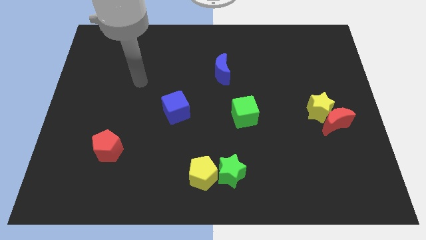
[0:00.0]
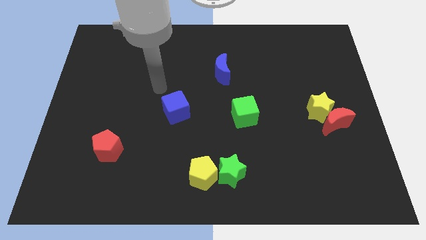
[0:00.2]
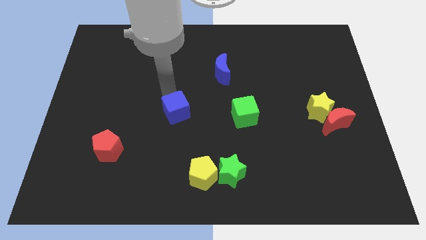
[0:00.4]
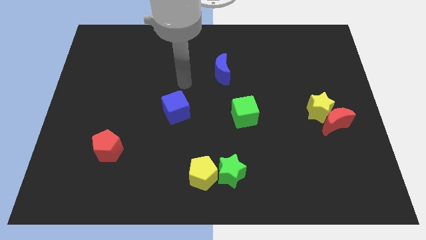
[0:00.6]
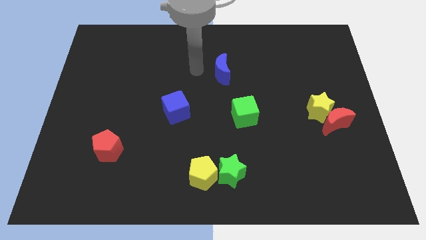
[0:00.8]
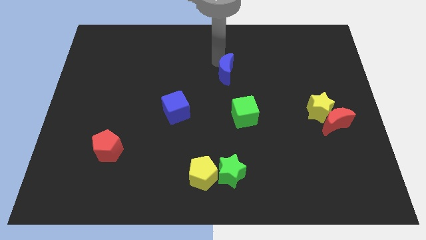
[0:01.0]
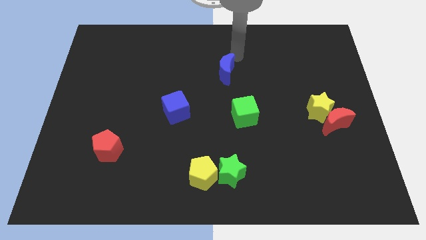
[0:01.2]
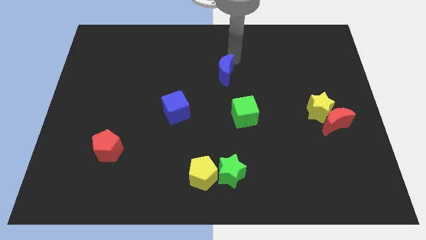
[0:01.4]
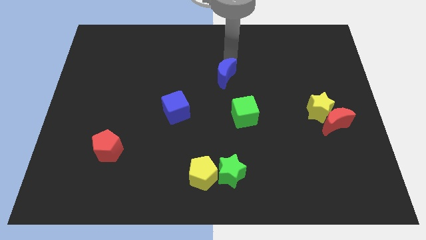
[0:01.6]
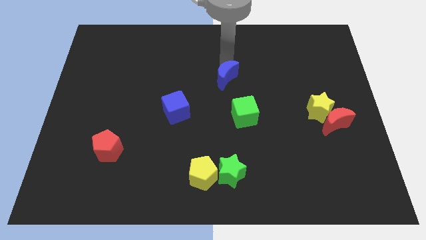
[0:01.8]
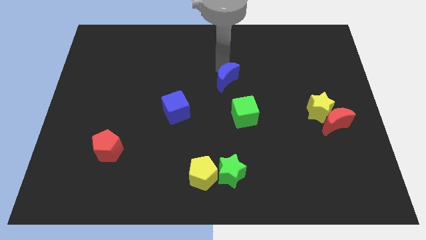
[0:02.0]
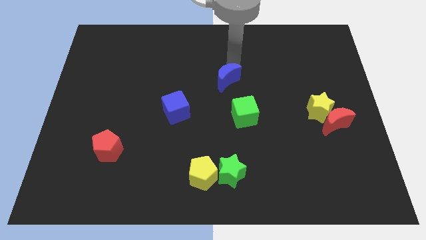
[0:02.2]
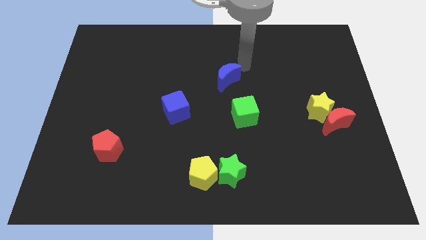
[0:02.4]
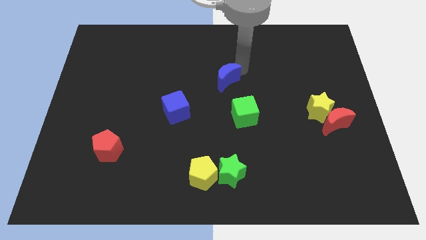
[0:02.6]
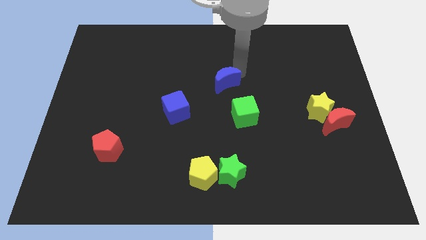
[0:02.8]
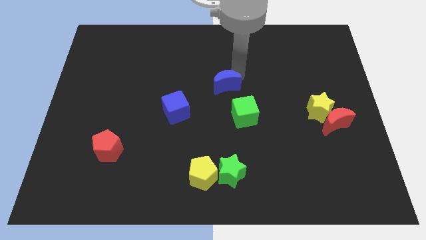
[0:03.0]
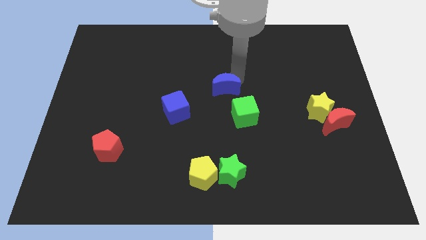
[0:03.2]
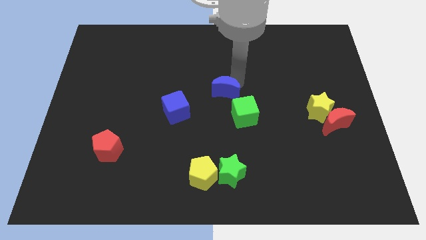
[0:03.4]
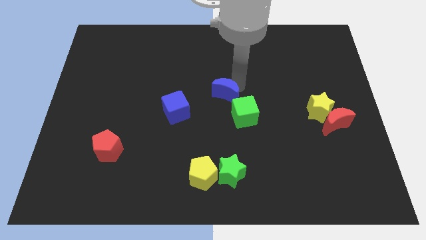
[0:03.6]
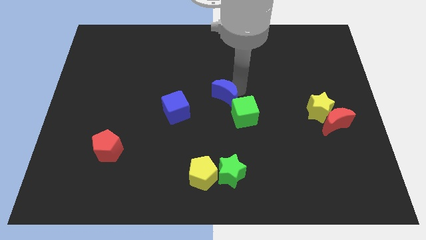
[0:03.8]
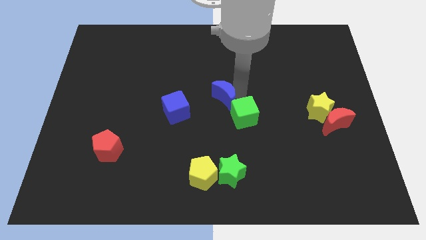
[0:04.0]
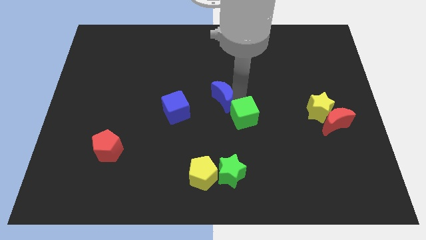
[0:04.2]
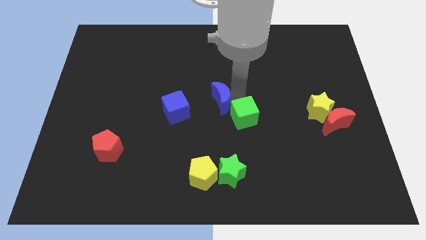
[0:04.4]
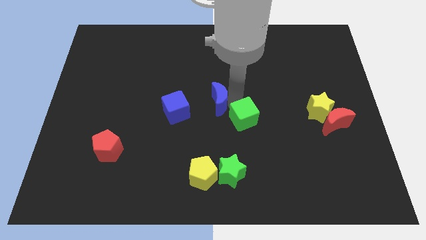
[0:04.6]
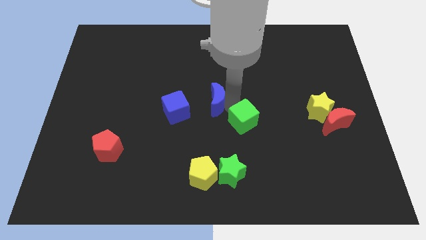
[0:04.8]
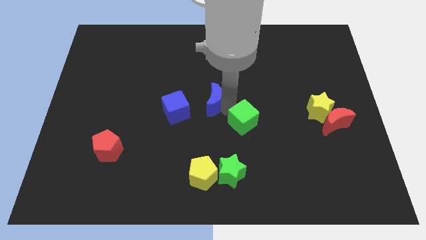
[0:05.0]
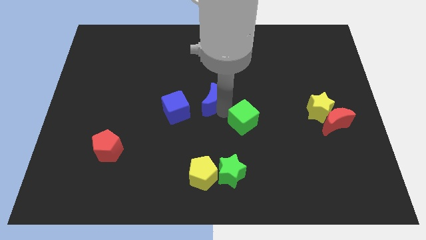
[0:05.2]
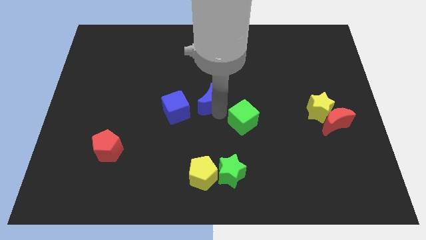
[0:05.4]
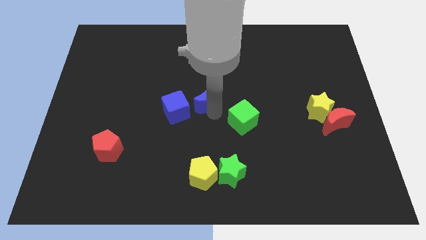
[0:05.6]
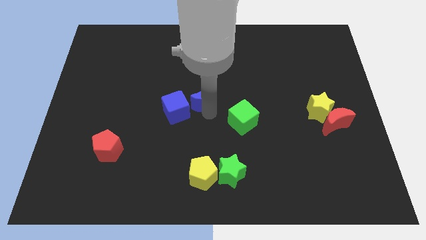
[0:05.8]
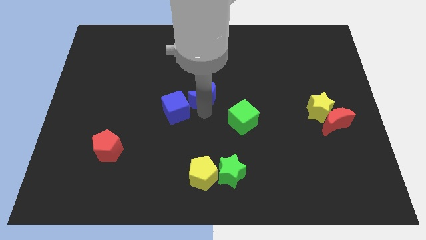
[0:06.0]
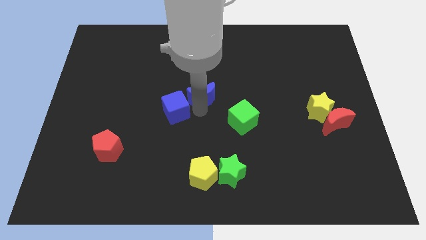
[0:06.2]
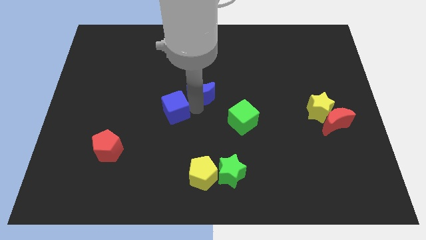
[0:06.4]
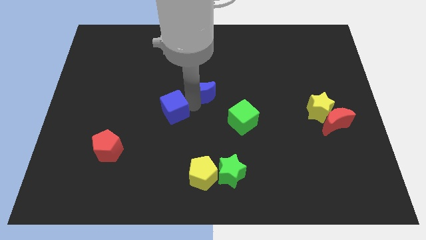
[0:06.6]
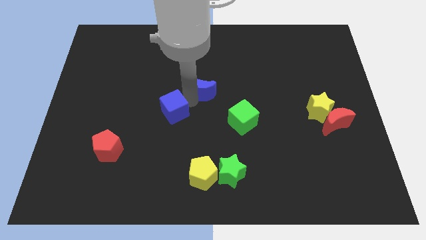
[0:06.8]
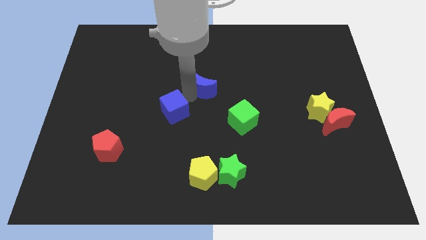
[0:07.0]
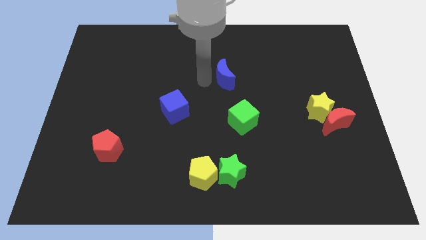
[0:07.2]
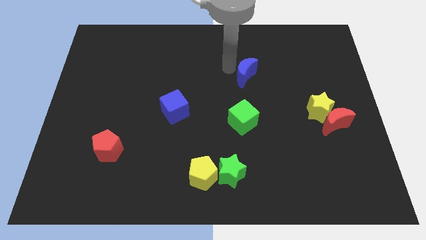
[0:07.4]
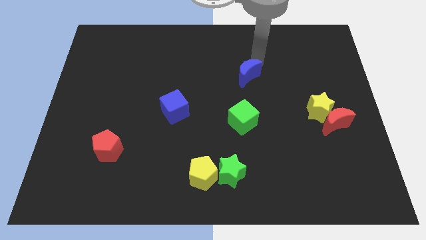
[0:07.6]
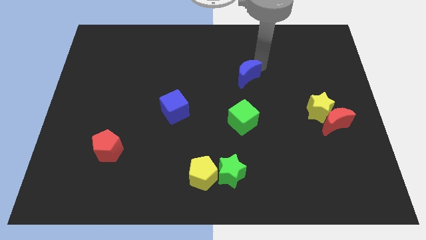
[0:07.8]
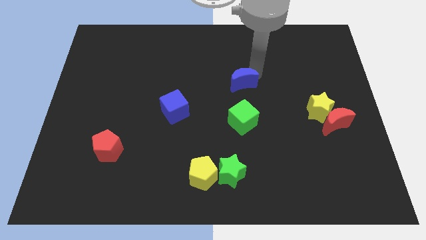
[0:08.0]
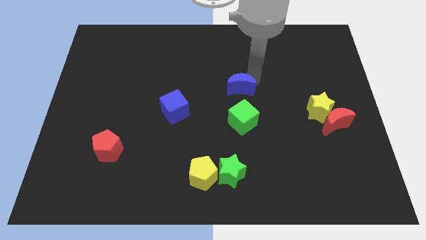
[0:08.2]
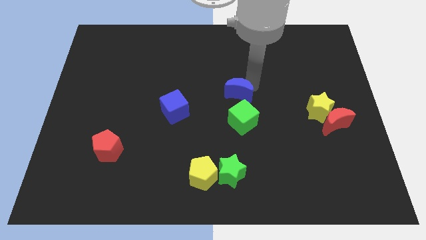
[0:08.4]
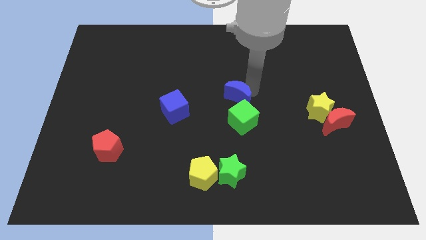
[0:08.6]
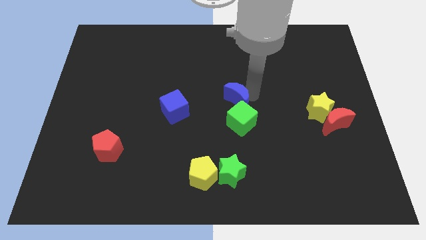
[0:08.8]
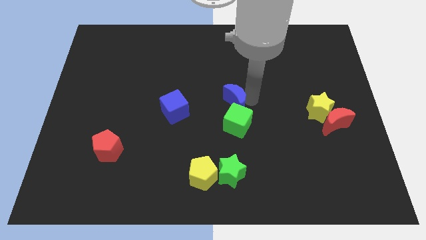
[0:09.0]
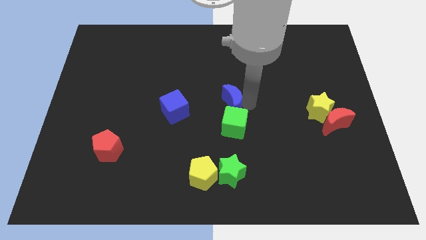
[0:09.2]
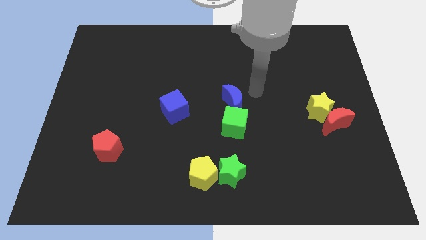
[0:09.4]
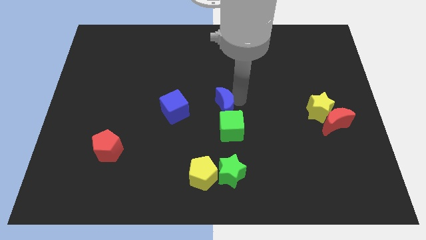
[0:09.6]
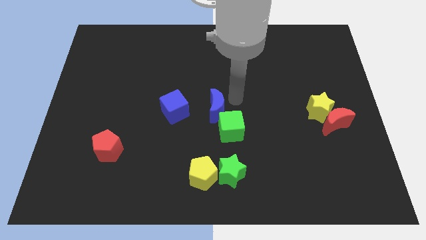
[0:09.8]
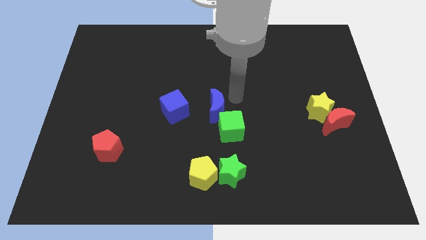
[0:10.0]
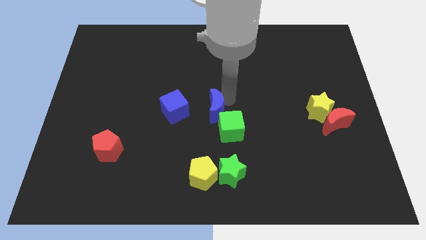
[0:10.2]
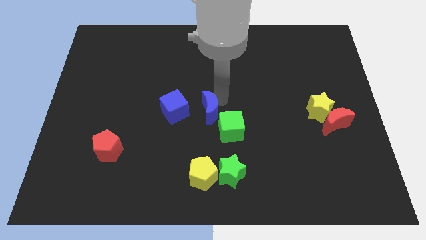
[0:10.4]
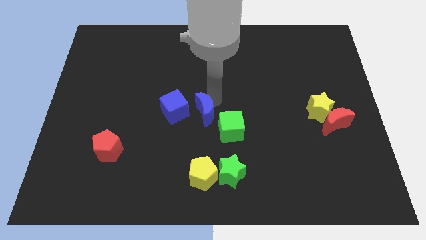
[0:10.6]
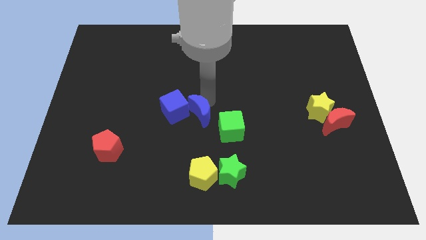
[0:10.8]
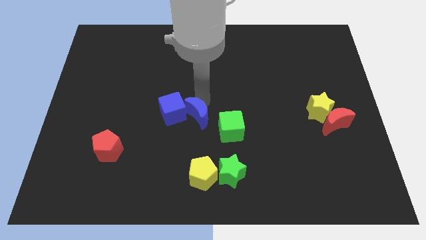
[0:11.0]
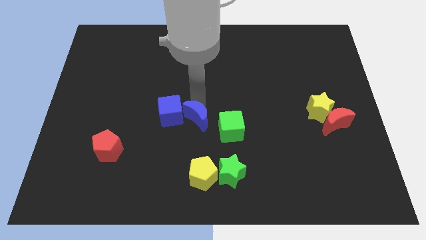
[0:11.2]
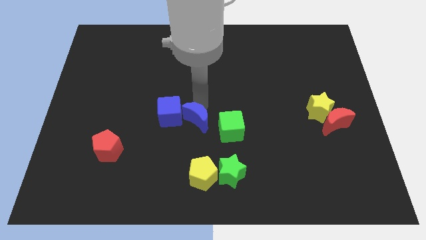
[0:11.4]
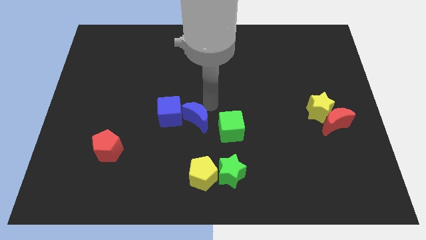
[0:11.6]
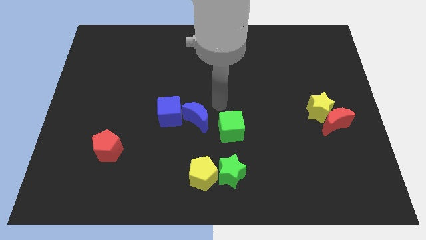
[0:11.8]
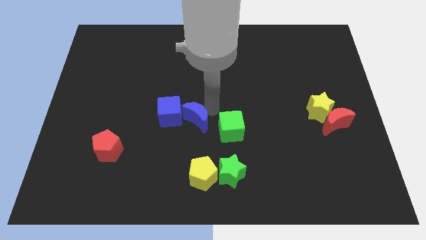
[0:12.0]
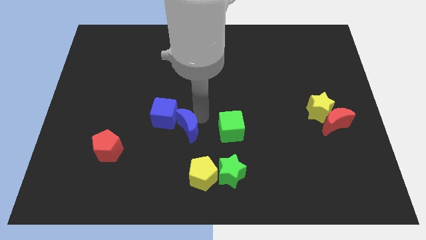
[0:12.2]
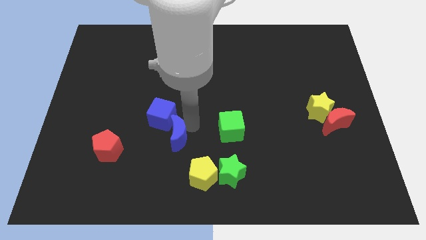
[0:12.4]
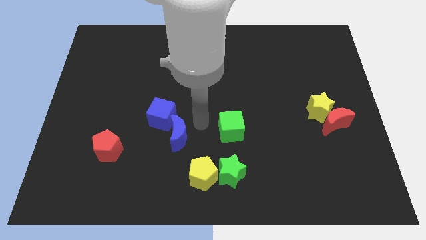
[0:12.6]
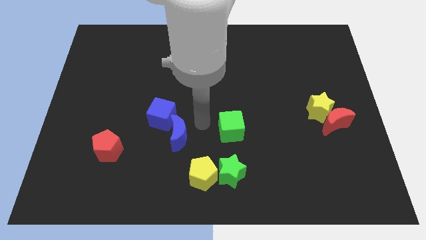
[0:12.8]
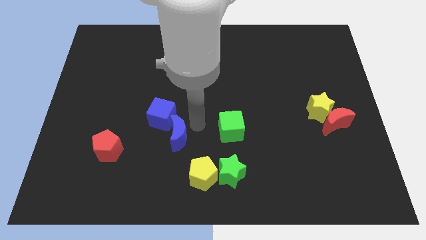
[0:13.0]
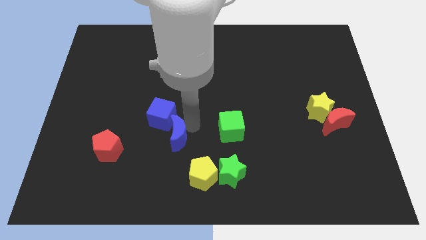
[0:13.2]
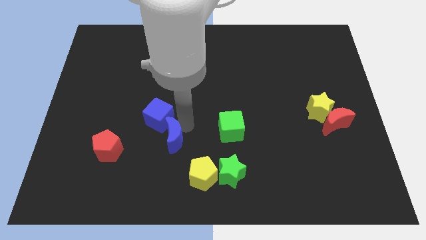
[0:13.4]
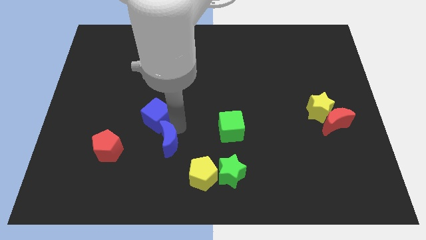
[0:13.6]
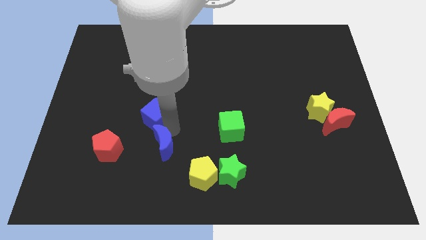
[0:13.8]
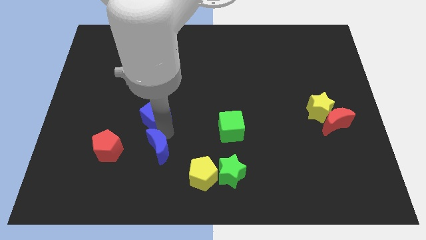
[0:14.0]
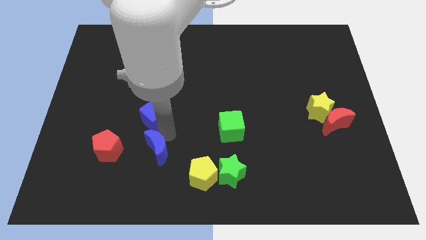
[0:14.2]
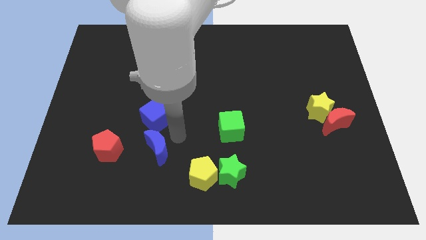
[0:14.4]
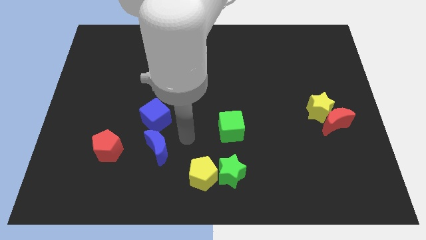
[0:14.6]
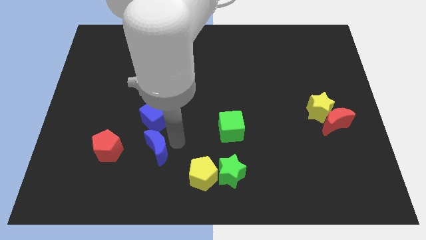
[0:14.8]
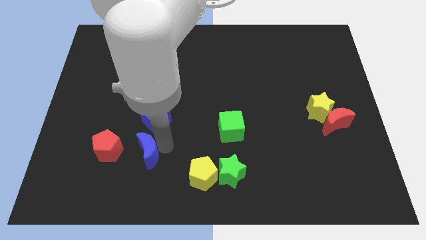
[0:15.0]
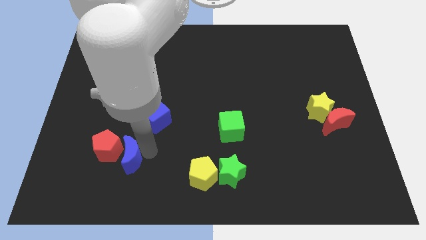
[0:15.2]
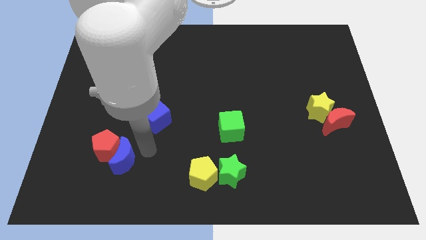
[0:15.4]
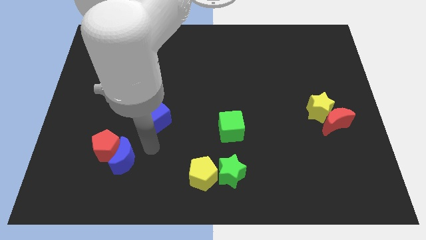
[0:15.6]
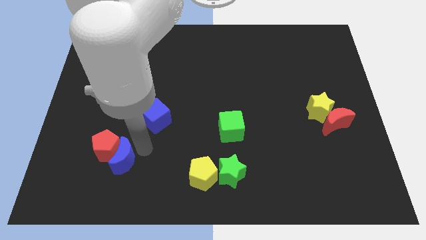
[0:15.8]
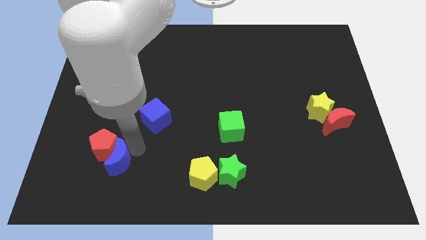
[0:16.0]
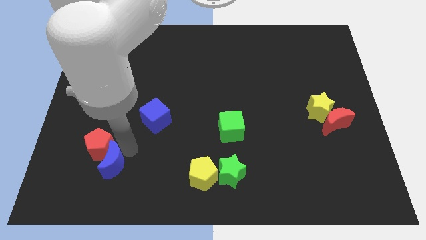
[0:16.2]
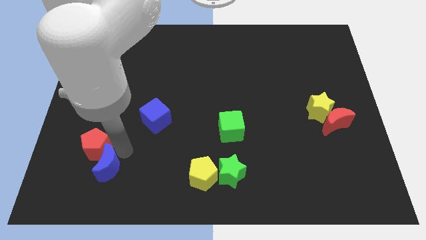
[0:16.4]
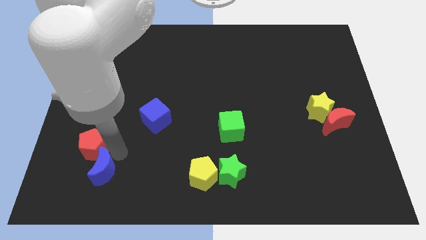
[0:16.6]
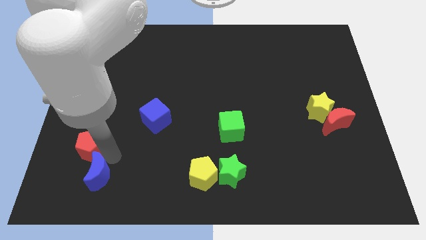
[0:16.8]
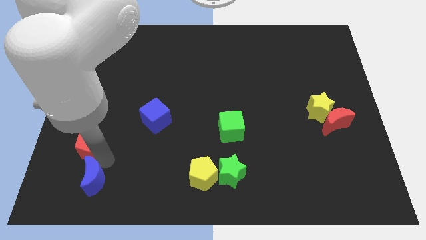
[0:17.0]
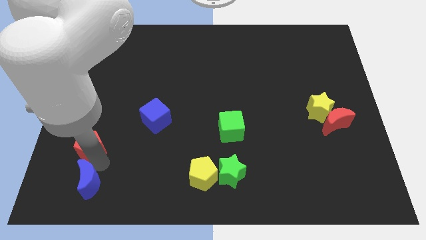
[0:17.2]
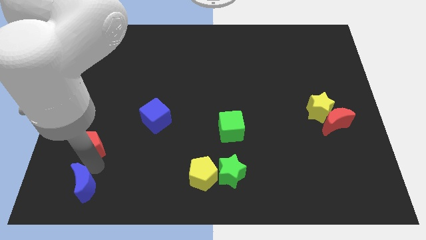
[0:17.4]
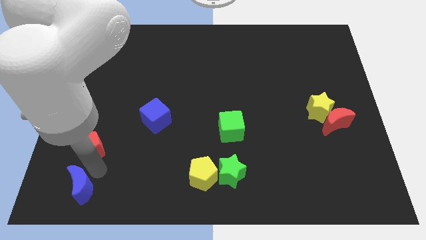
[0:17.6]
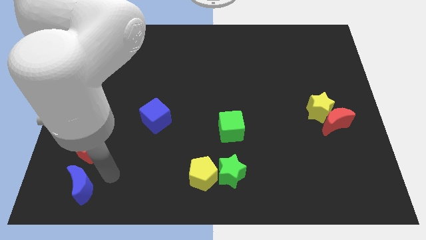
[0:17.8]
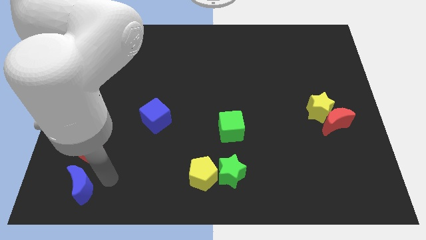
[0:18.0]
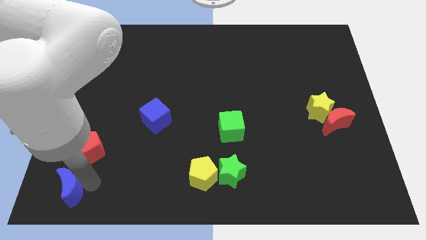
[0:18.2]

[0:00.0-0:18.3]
slide the blue moon to the bottom left
